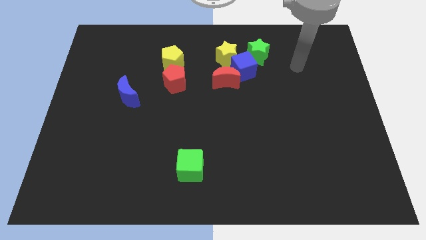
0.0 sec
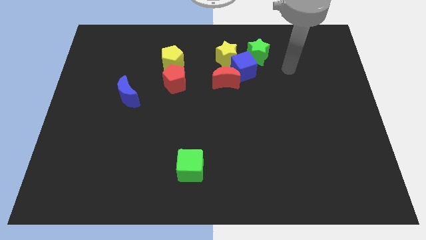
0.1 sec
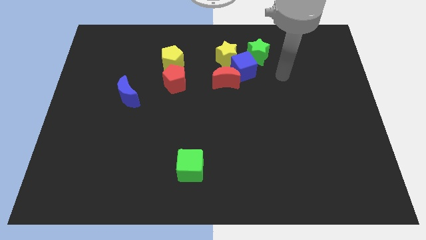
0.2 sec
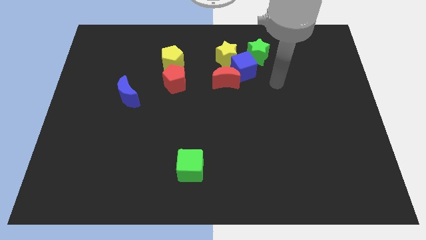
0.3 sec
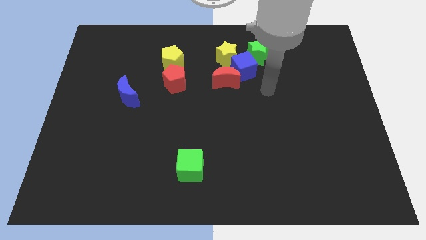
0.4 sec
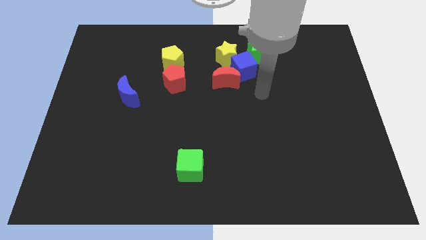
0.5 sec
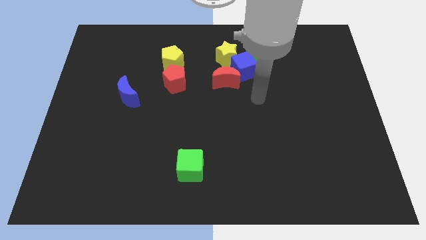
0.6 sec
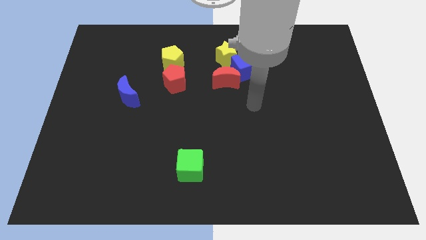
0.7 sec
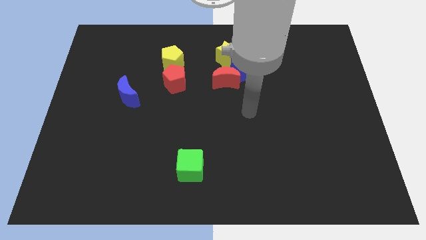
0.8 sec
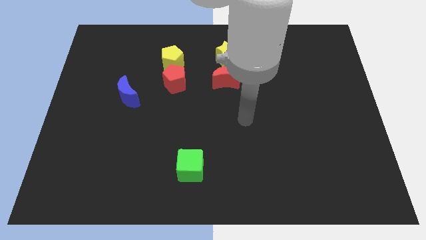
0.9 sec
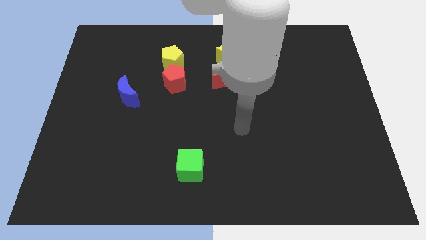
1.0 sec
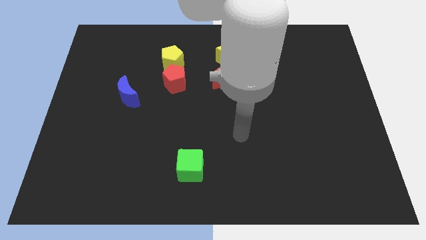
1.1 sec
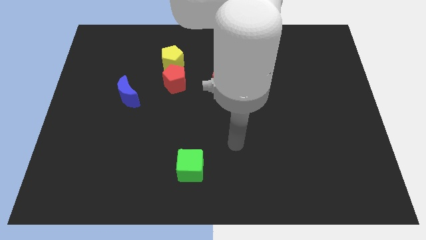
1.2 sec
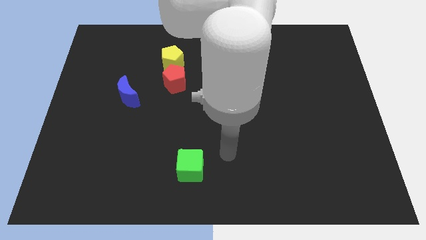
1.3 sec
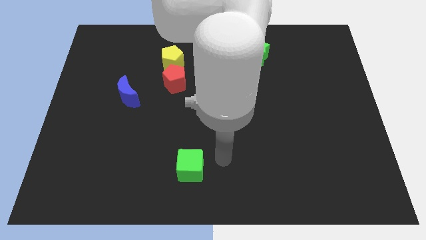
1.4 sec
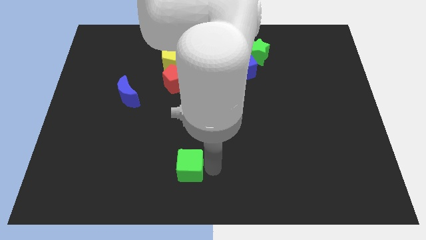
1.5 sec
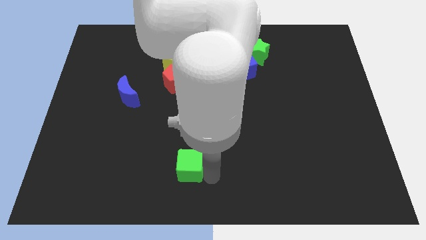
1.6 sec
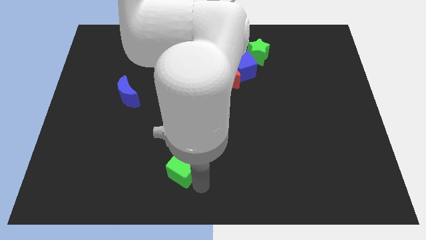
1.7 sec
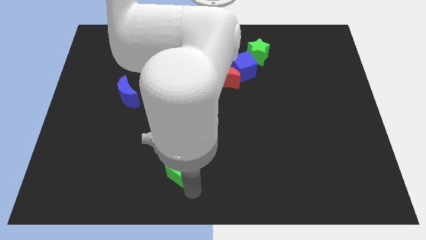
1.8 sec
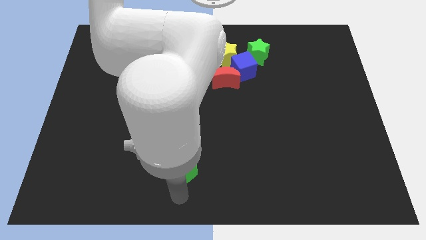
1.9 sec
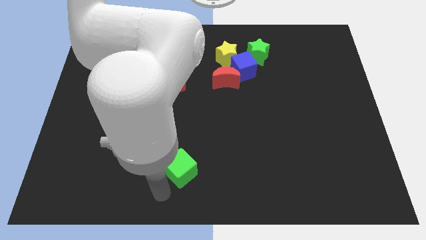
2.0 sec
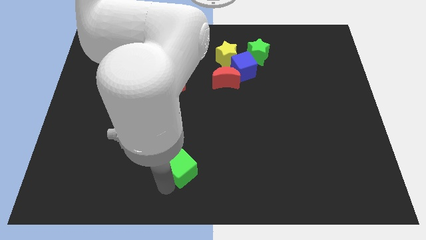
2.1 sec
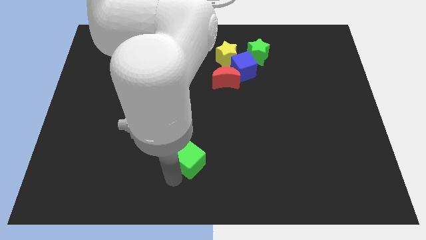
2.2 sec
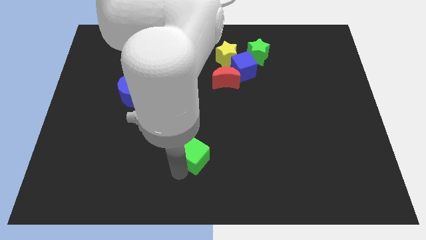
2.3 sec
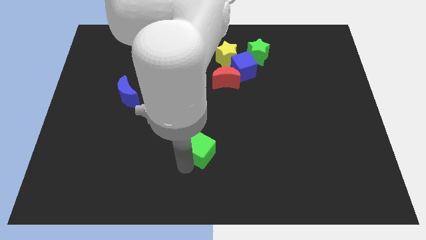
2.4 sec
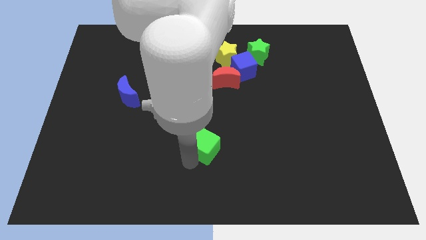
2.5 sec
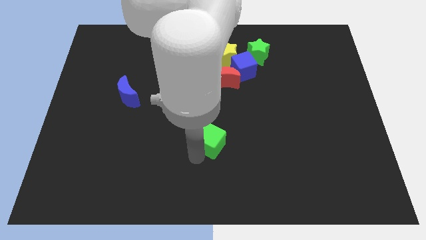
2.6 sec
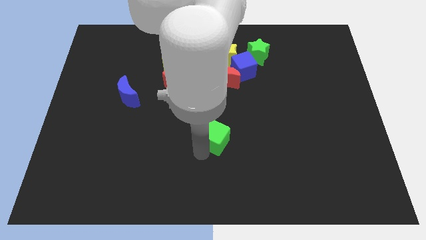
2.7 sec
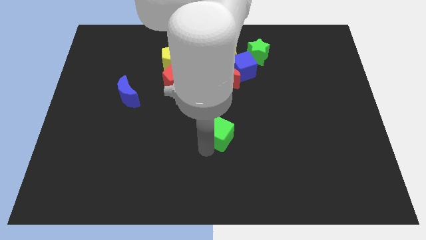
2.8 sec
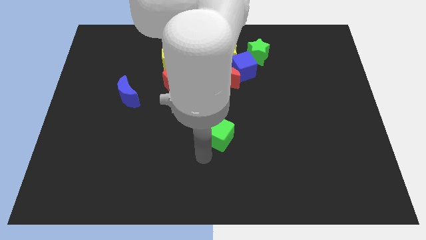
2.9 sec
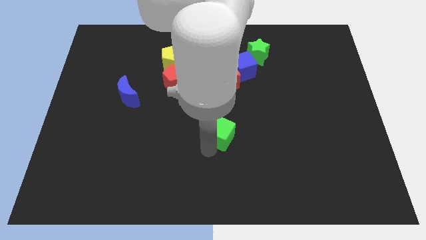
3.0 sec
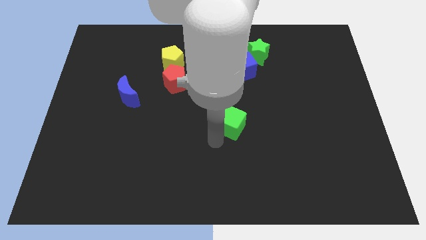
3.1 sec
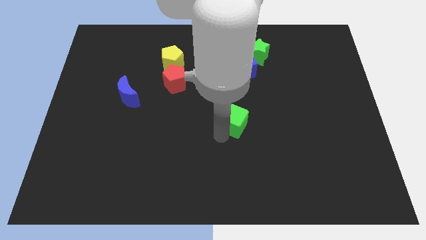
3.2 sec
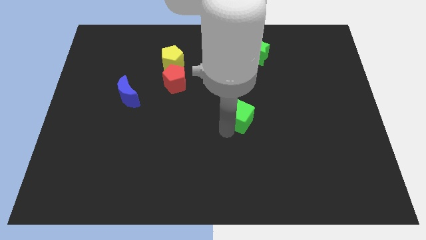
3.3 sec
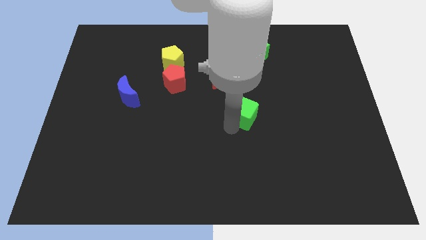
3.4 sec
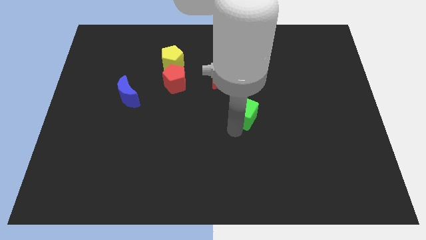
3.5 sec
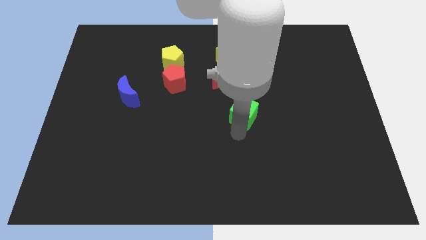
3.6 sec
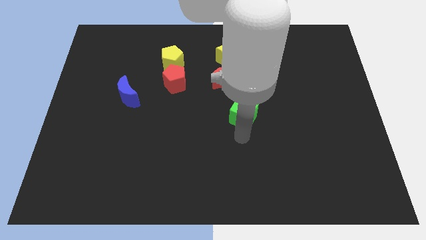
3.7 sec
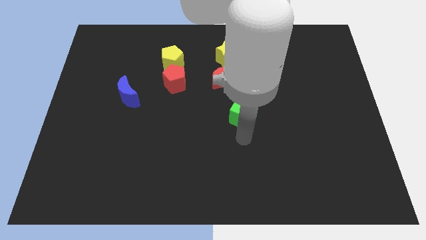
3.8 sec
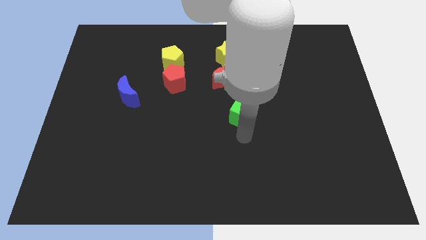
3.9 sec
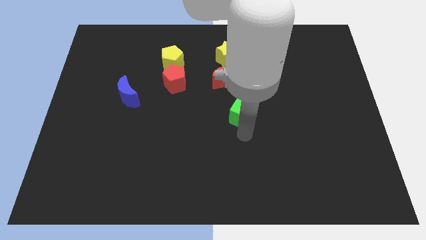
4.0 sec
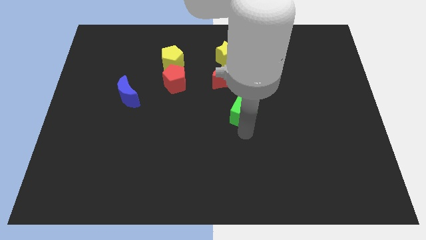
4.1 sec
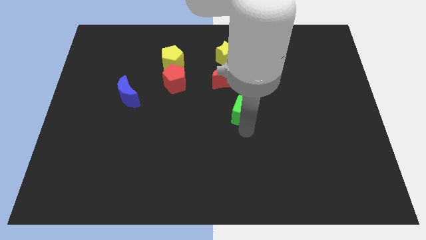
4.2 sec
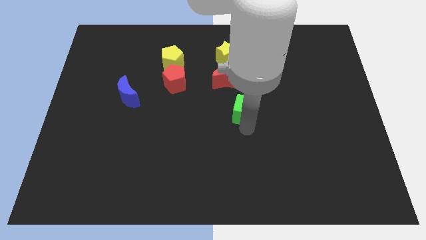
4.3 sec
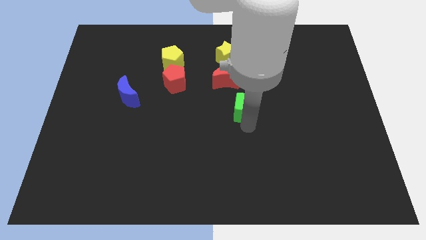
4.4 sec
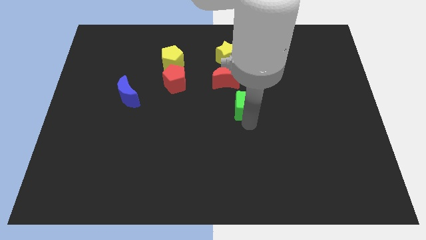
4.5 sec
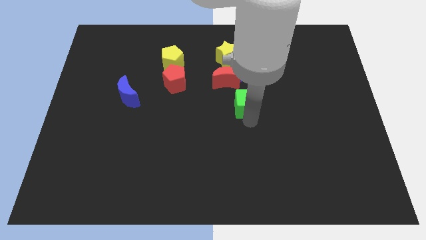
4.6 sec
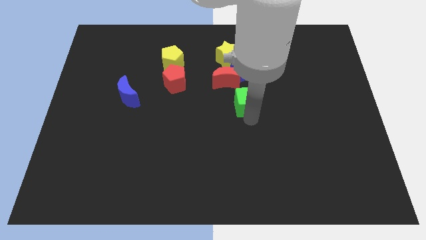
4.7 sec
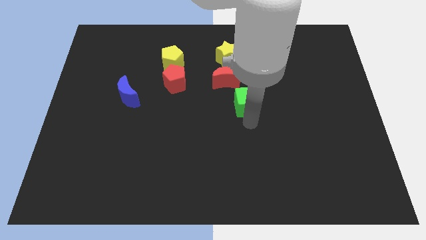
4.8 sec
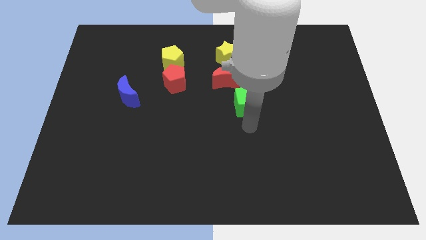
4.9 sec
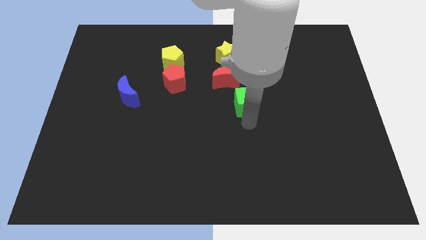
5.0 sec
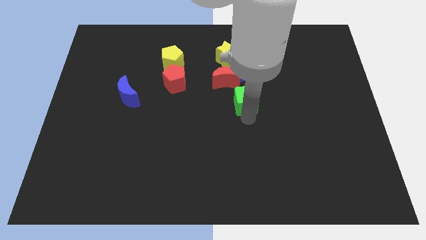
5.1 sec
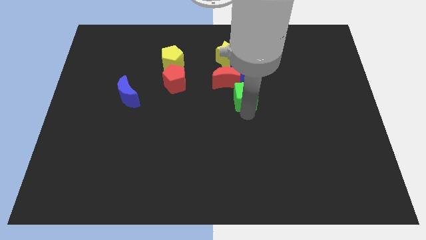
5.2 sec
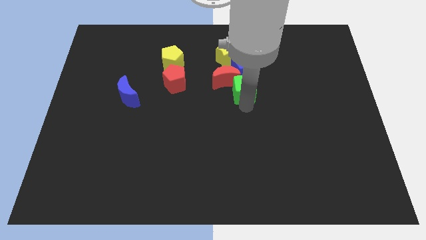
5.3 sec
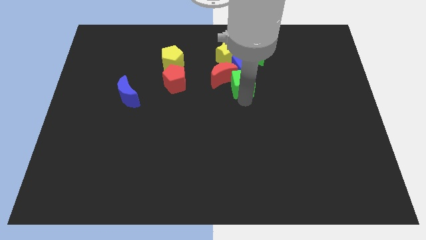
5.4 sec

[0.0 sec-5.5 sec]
move the green cube towards the blue cube

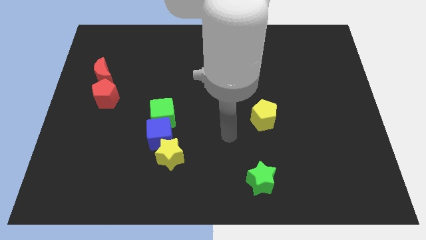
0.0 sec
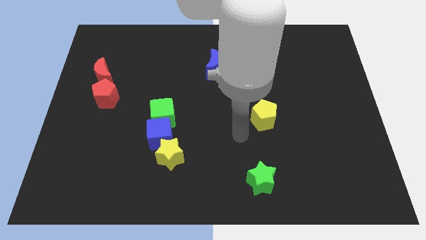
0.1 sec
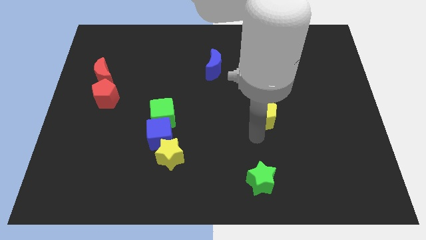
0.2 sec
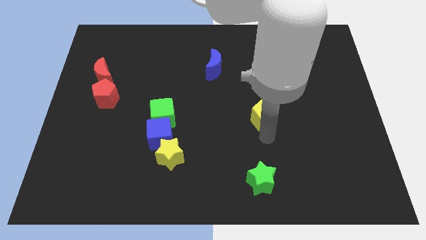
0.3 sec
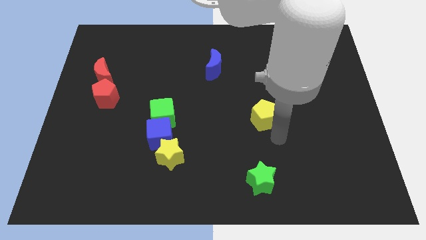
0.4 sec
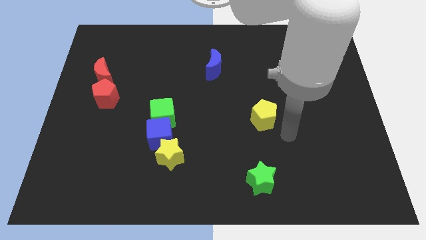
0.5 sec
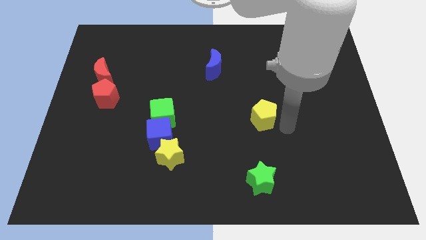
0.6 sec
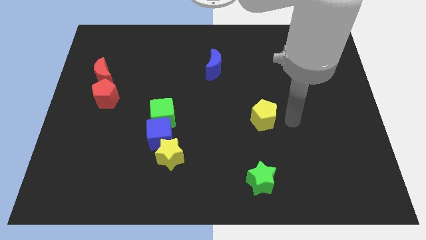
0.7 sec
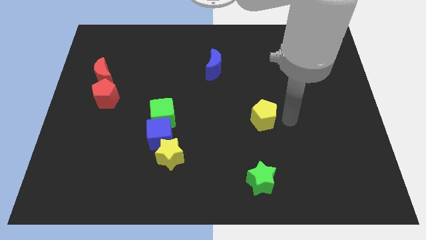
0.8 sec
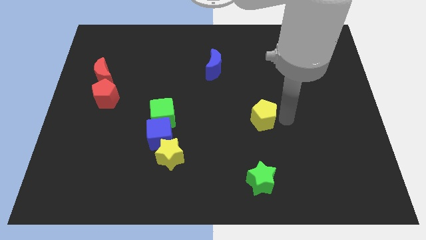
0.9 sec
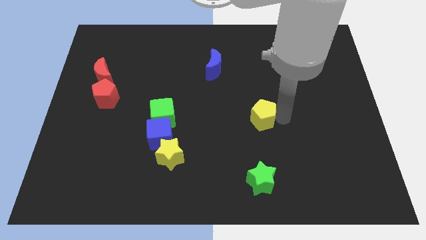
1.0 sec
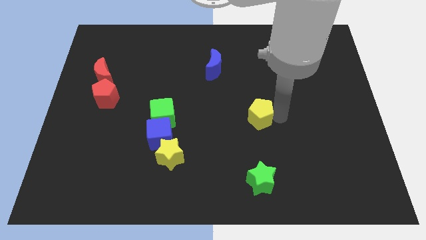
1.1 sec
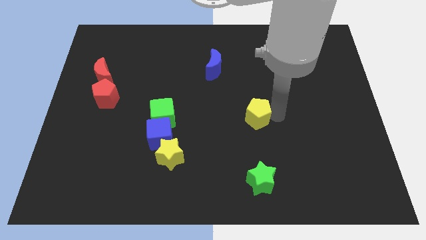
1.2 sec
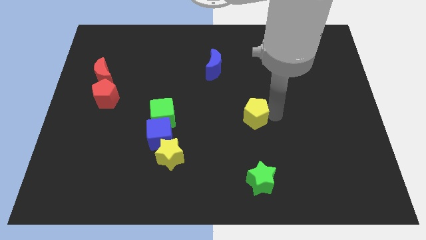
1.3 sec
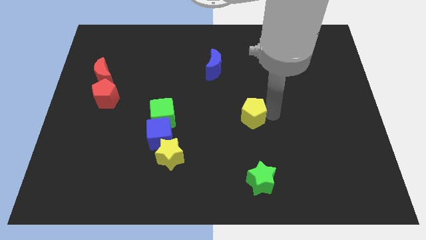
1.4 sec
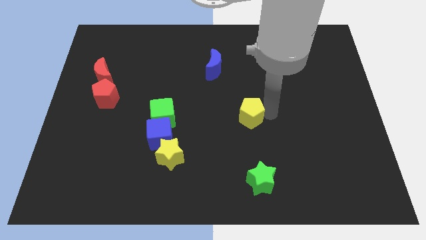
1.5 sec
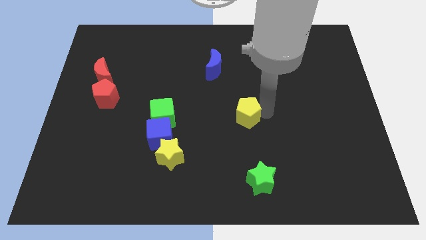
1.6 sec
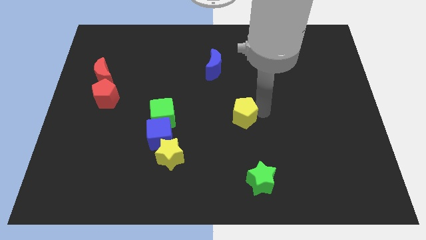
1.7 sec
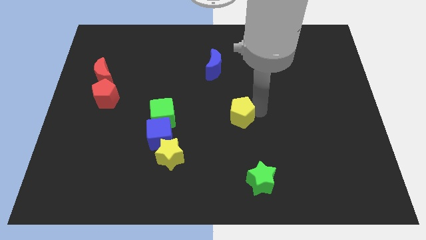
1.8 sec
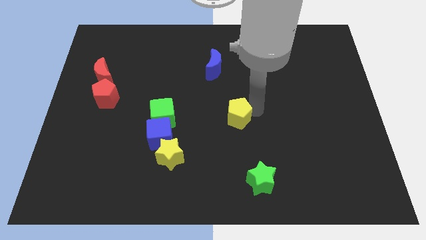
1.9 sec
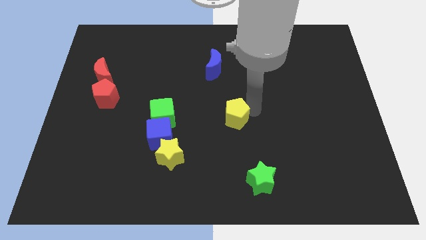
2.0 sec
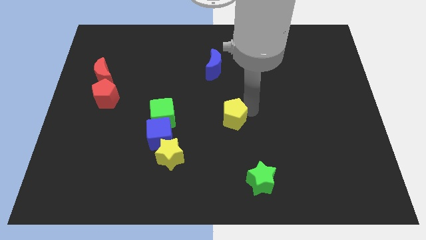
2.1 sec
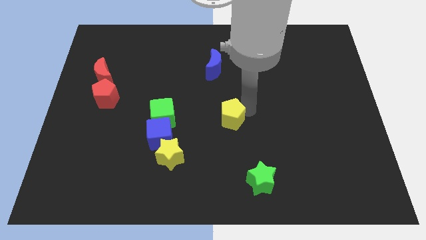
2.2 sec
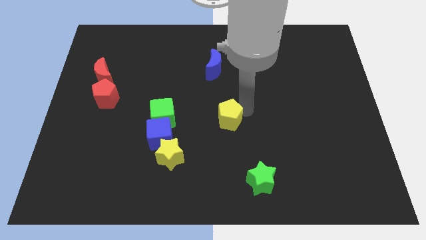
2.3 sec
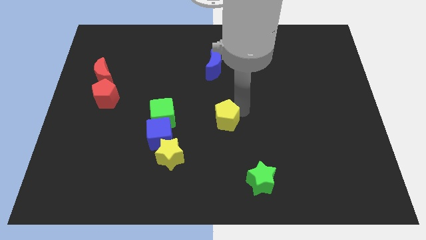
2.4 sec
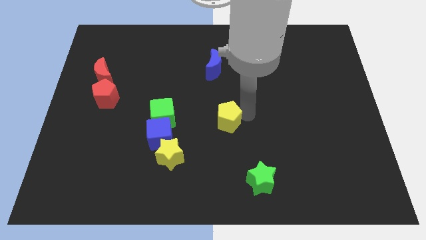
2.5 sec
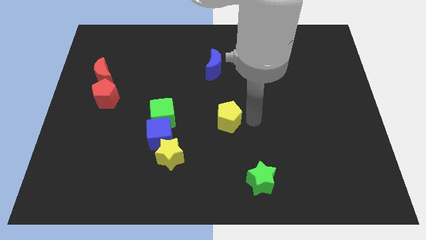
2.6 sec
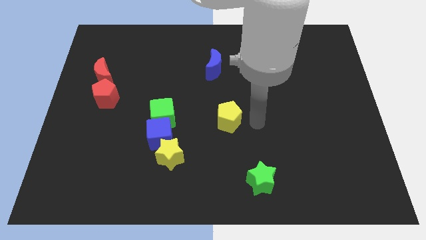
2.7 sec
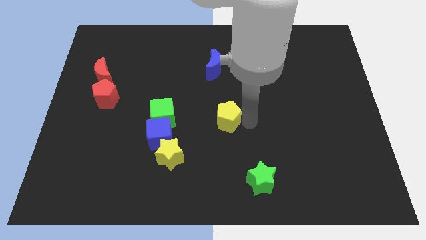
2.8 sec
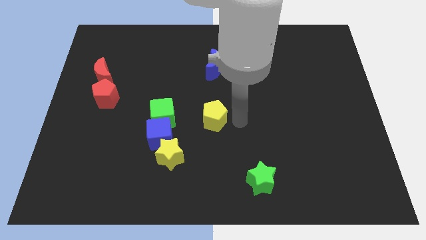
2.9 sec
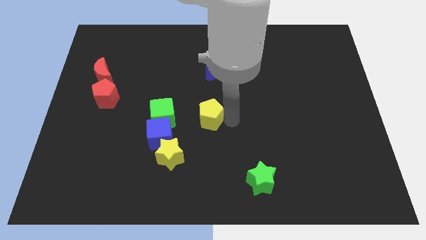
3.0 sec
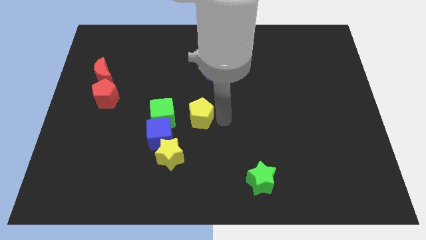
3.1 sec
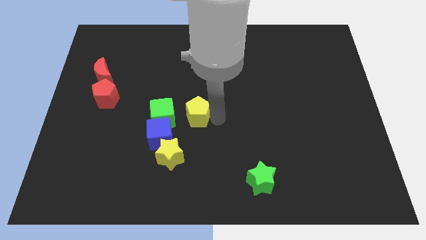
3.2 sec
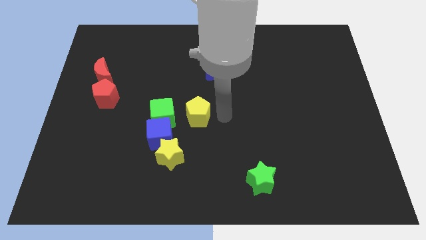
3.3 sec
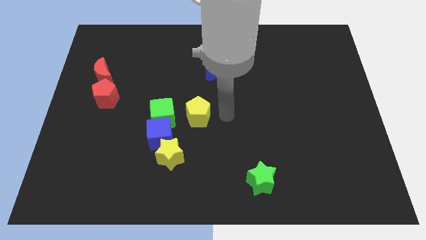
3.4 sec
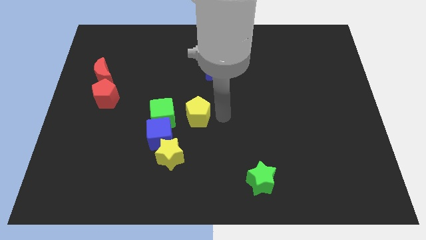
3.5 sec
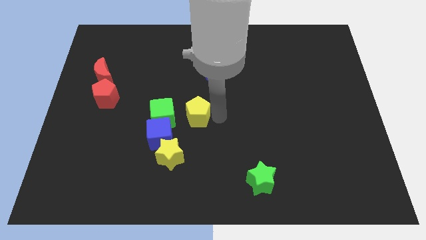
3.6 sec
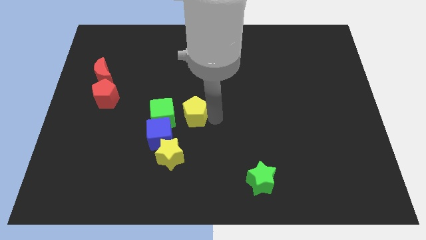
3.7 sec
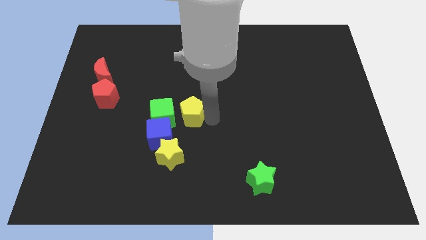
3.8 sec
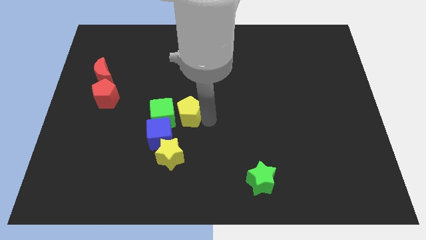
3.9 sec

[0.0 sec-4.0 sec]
slide the yellow pentagon close to the green cube
